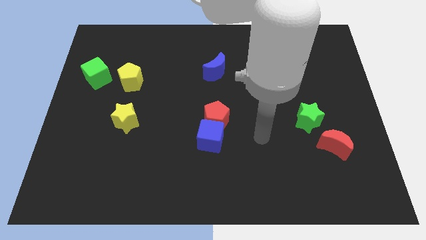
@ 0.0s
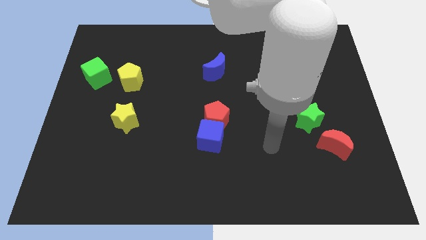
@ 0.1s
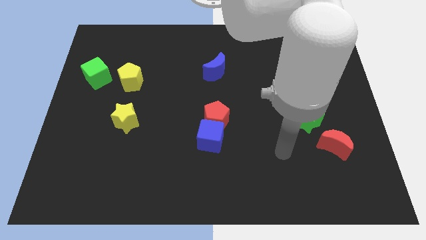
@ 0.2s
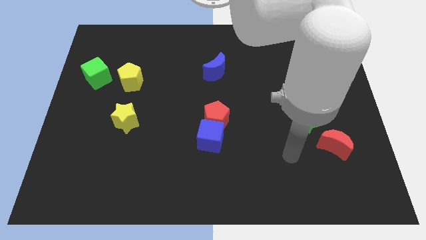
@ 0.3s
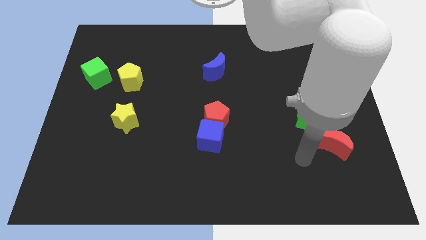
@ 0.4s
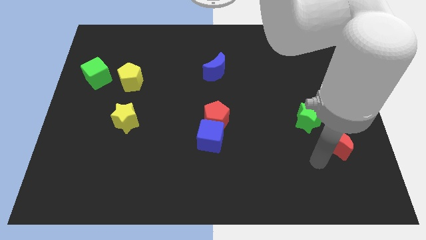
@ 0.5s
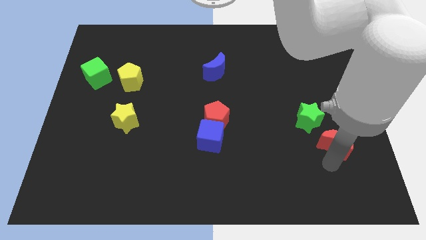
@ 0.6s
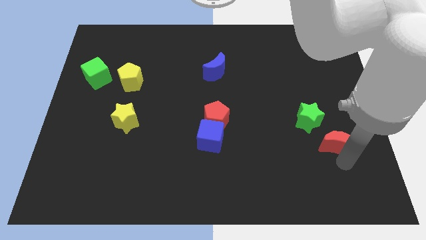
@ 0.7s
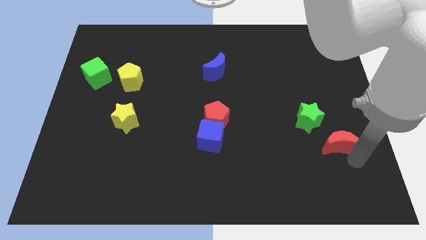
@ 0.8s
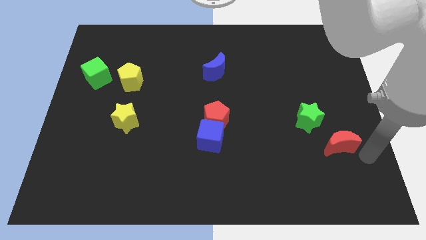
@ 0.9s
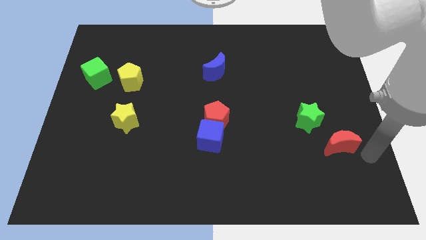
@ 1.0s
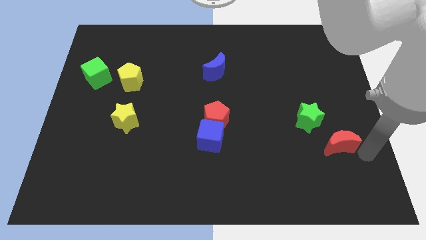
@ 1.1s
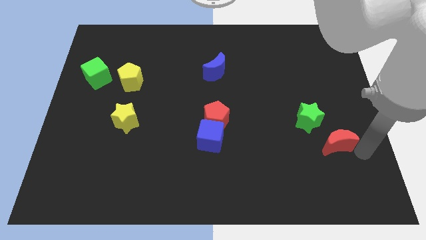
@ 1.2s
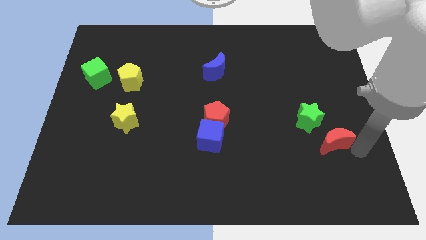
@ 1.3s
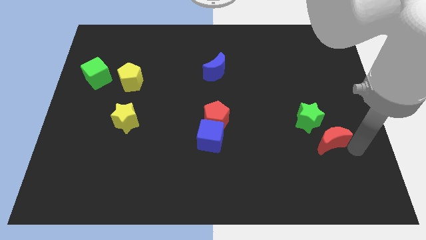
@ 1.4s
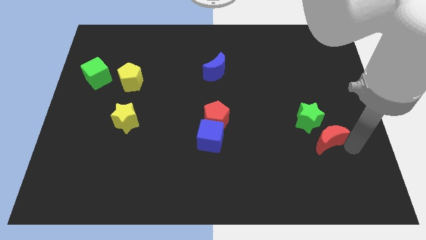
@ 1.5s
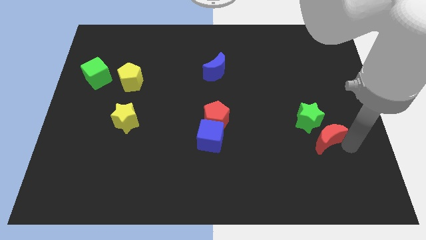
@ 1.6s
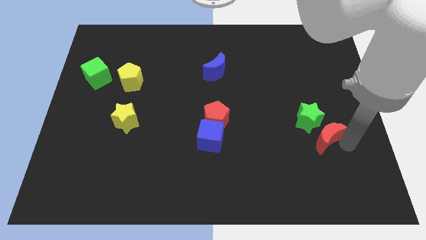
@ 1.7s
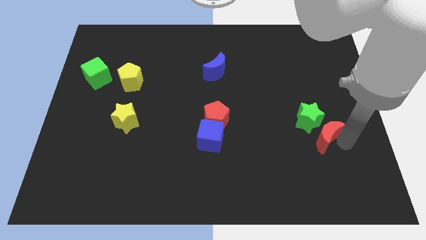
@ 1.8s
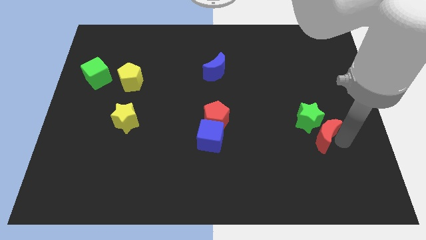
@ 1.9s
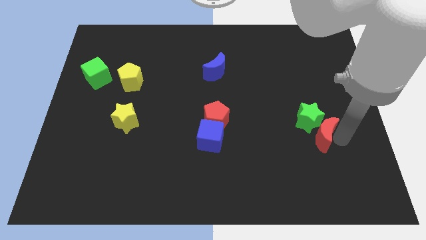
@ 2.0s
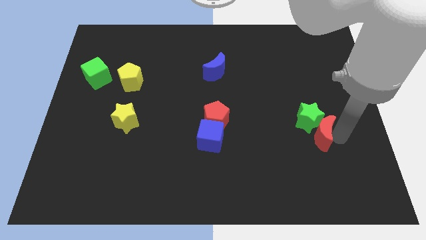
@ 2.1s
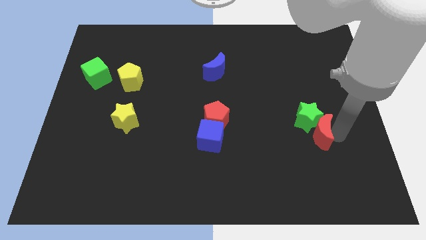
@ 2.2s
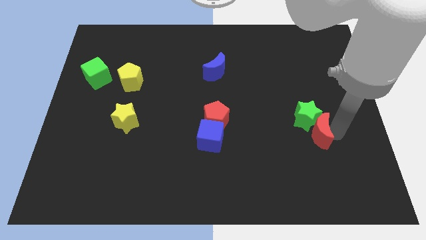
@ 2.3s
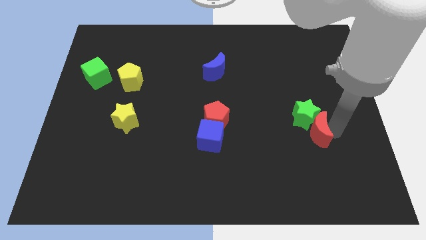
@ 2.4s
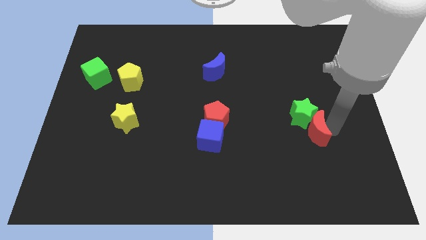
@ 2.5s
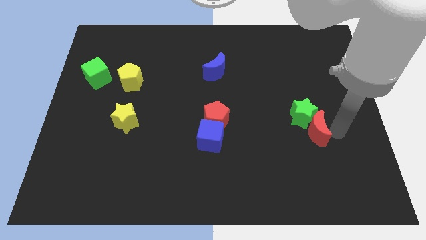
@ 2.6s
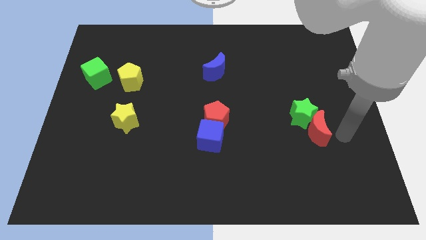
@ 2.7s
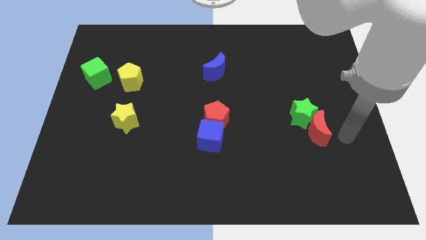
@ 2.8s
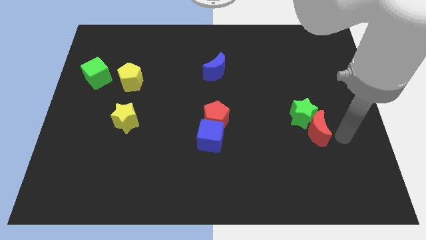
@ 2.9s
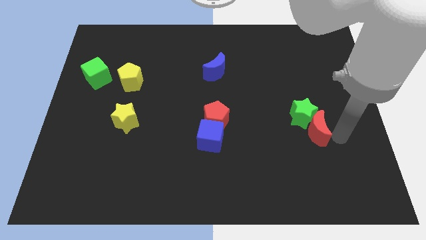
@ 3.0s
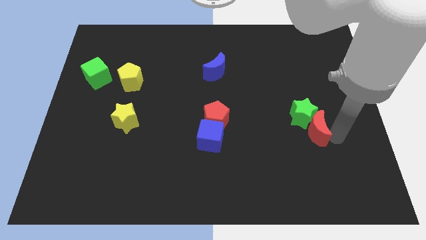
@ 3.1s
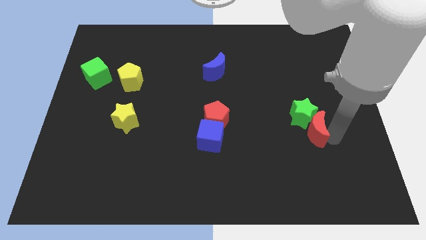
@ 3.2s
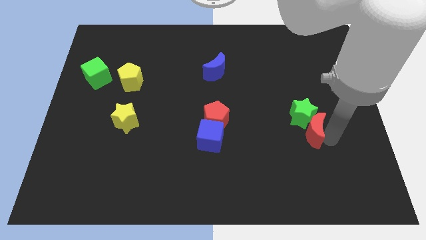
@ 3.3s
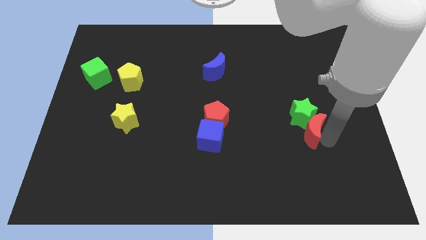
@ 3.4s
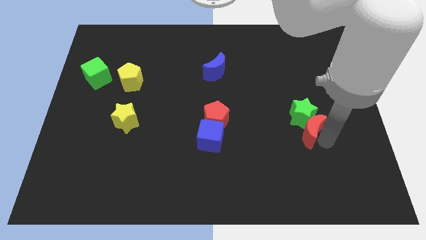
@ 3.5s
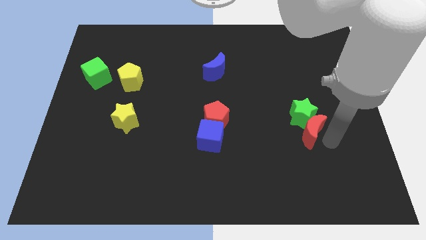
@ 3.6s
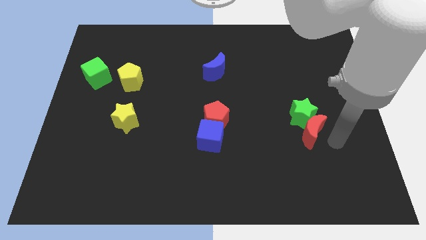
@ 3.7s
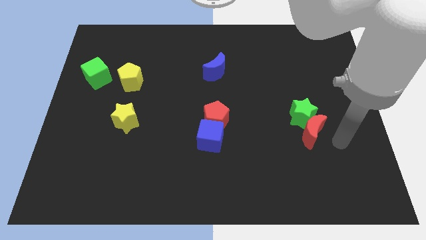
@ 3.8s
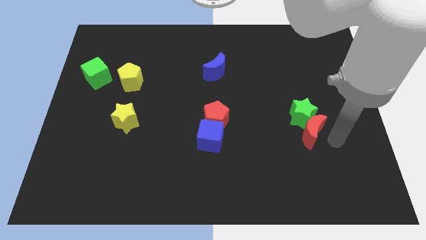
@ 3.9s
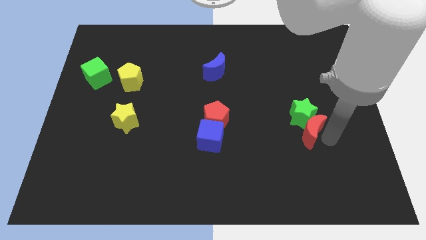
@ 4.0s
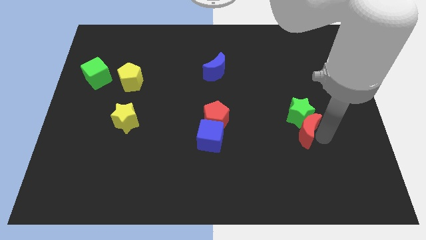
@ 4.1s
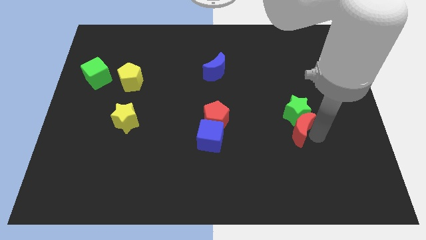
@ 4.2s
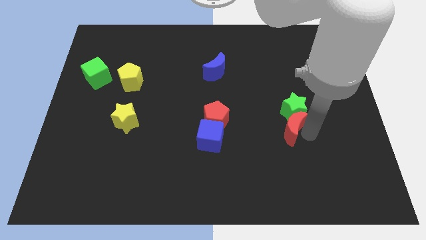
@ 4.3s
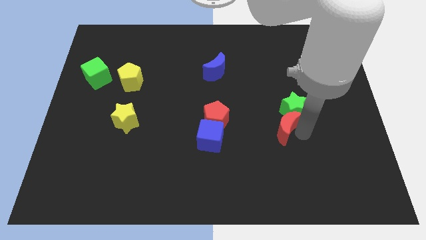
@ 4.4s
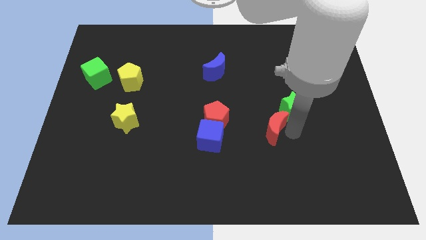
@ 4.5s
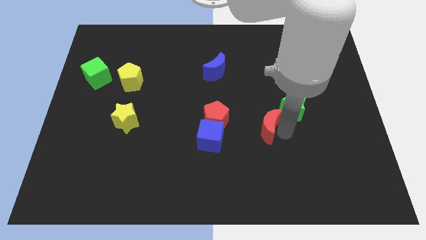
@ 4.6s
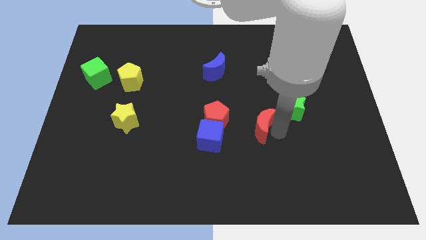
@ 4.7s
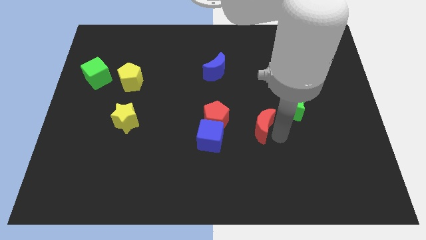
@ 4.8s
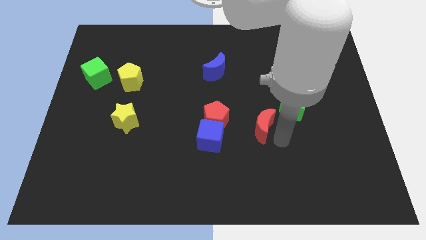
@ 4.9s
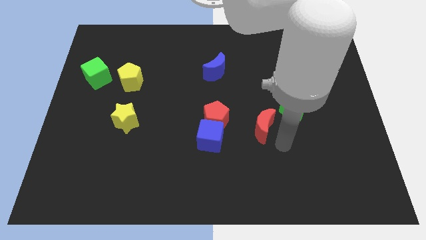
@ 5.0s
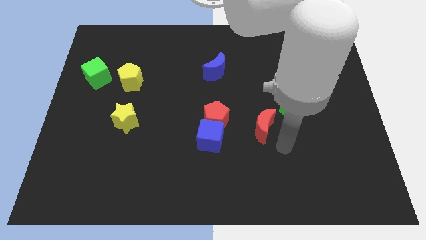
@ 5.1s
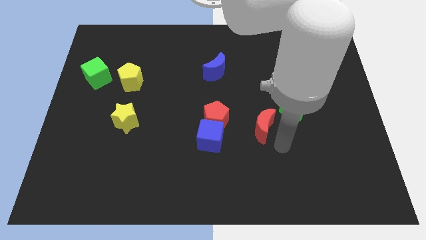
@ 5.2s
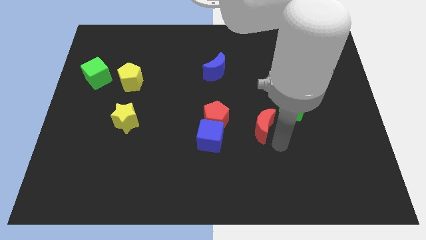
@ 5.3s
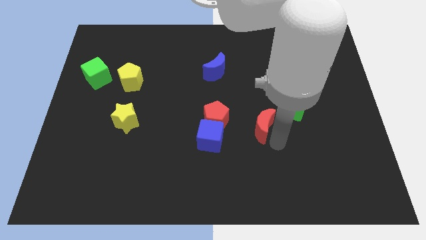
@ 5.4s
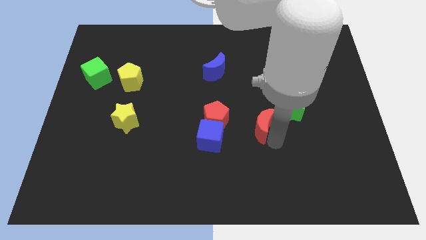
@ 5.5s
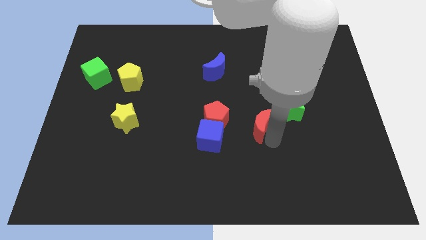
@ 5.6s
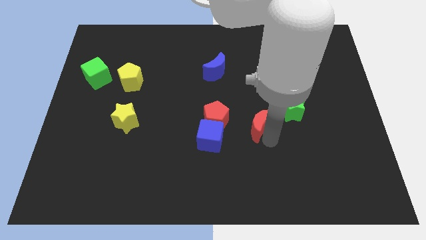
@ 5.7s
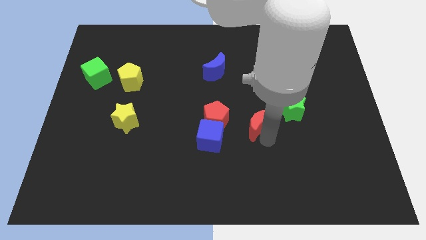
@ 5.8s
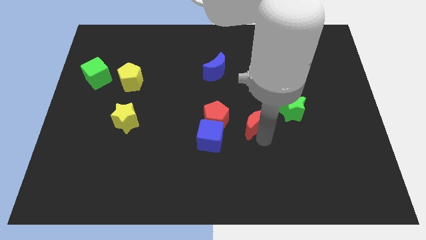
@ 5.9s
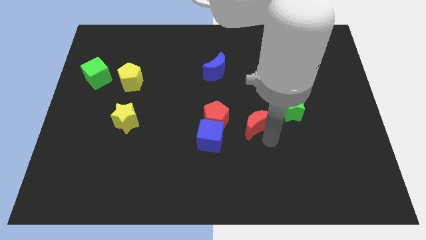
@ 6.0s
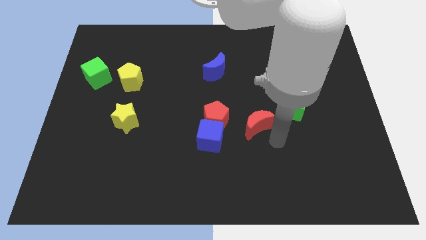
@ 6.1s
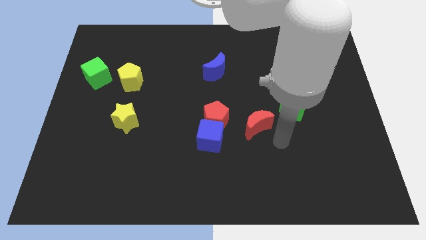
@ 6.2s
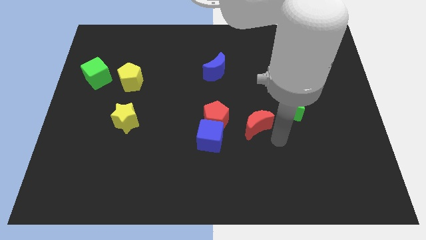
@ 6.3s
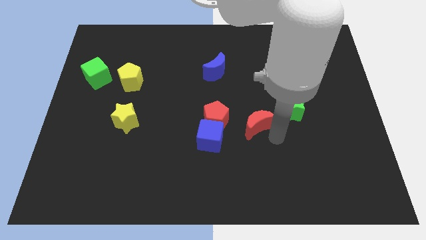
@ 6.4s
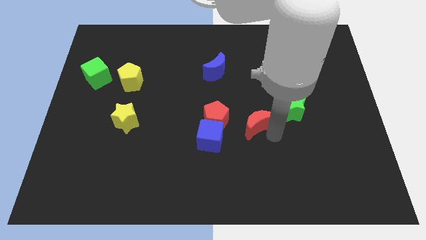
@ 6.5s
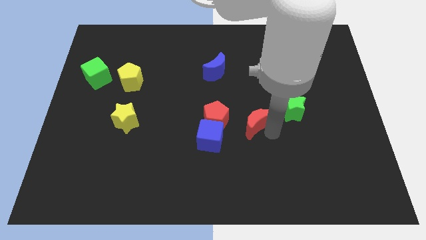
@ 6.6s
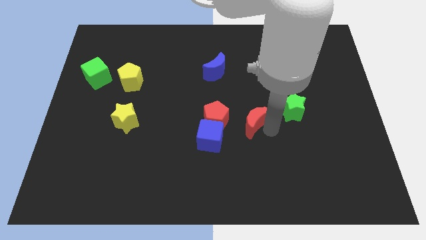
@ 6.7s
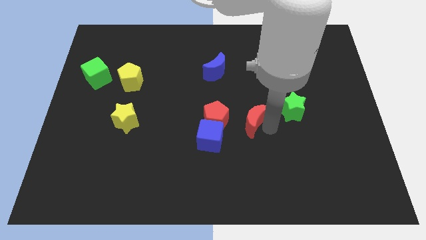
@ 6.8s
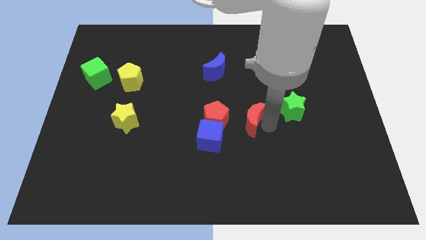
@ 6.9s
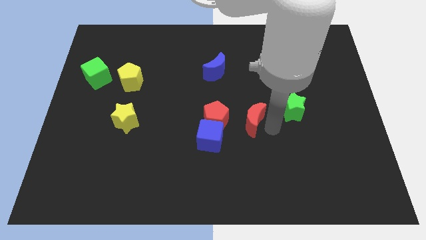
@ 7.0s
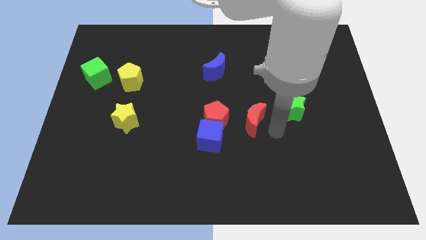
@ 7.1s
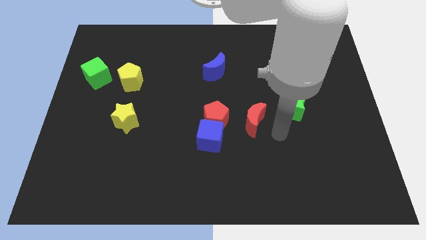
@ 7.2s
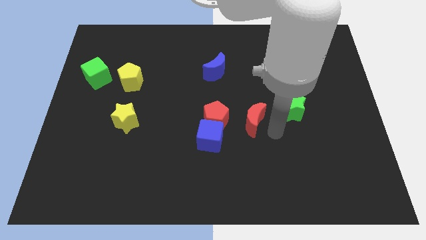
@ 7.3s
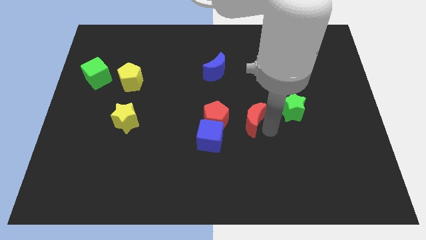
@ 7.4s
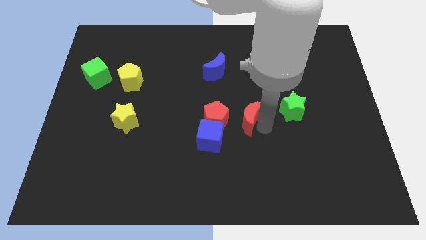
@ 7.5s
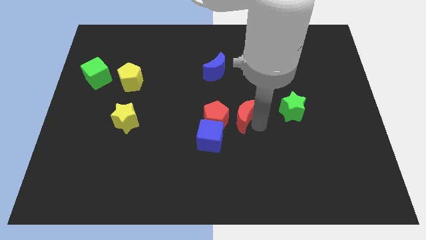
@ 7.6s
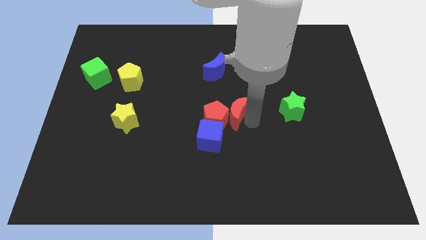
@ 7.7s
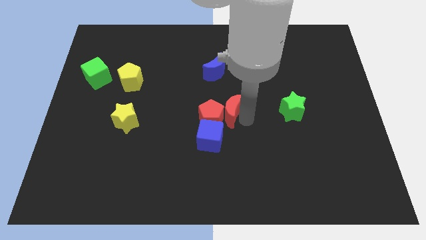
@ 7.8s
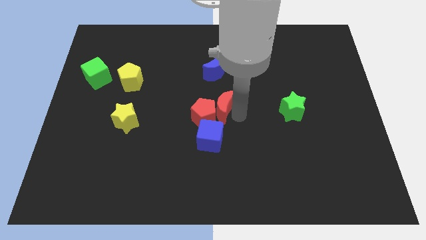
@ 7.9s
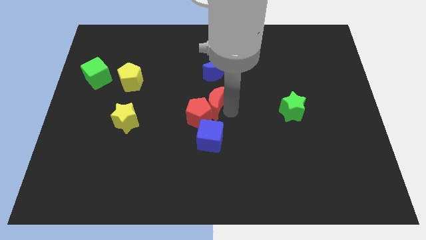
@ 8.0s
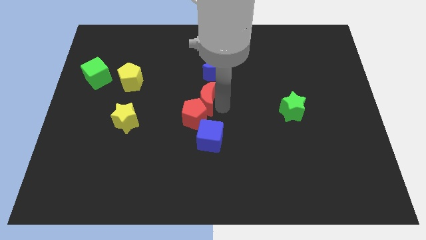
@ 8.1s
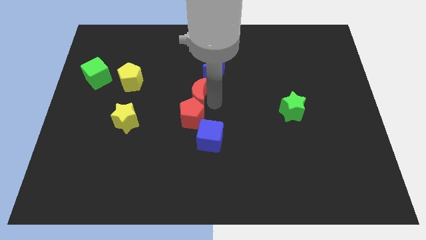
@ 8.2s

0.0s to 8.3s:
put the red moon to the top left side of the red pentagon

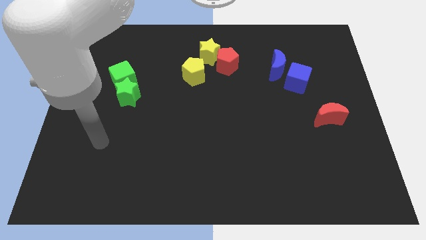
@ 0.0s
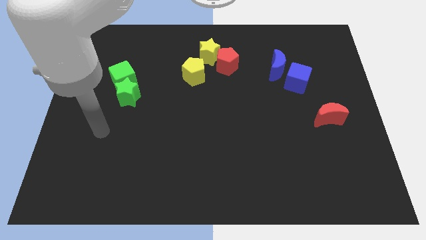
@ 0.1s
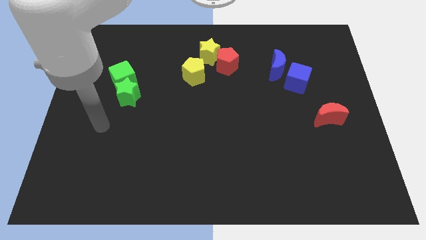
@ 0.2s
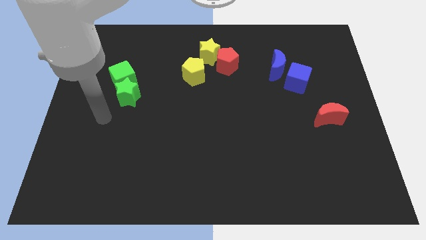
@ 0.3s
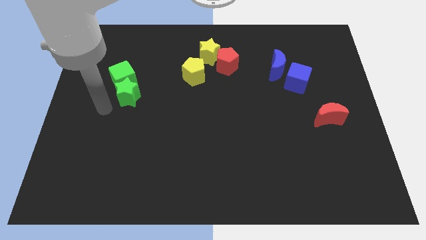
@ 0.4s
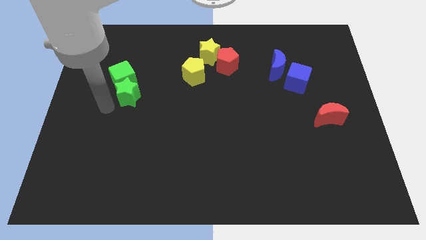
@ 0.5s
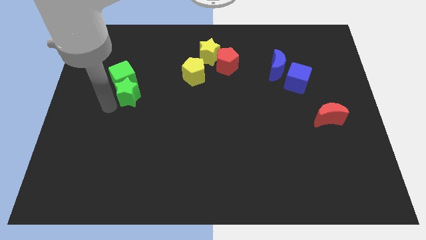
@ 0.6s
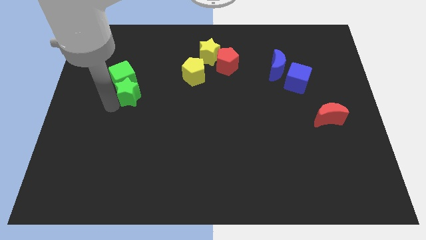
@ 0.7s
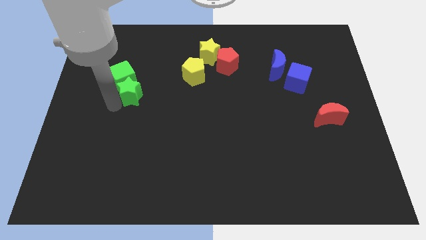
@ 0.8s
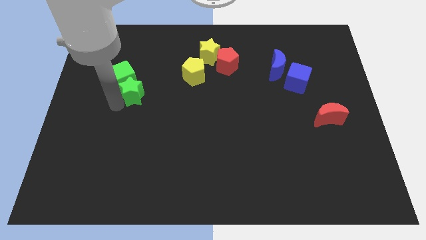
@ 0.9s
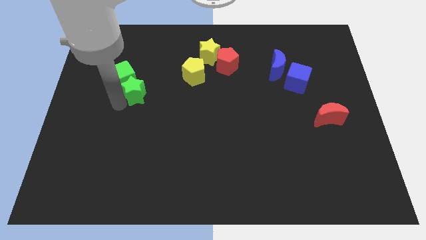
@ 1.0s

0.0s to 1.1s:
push the green star just right of the green cube
